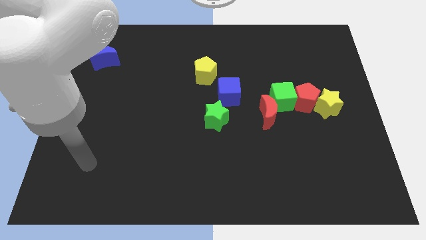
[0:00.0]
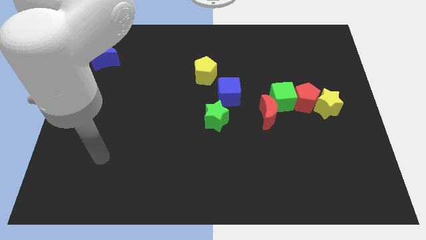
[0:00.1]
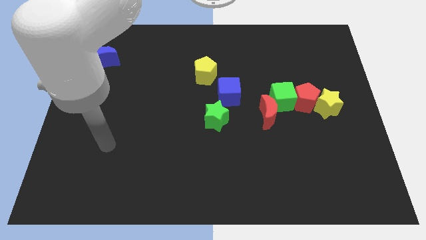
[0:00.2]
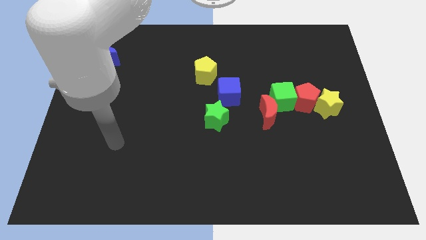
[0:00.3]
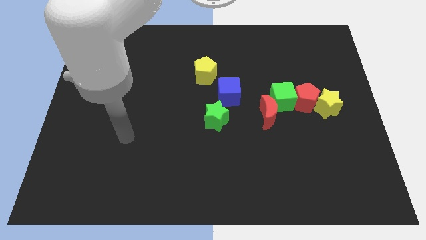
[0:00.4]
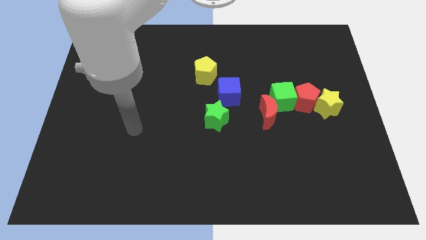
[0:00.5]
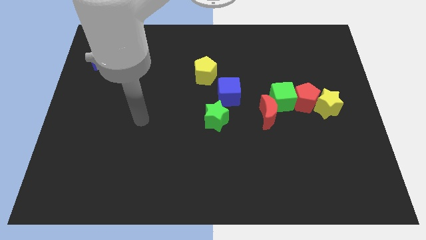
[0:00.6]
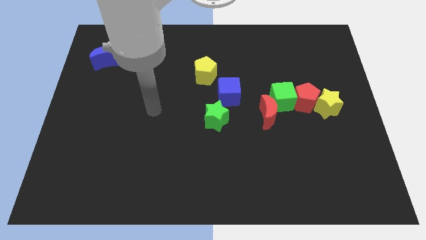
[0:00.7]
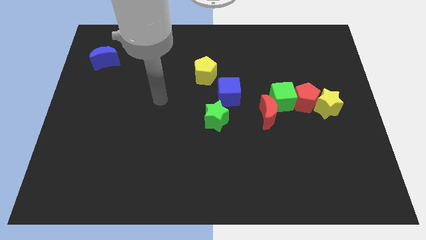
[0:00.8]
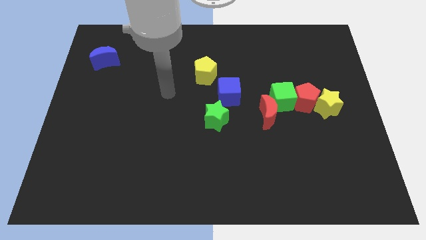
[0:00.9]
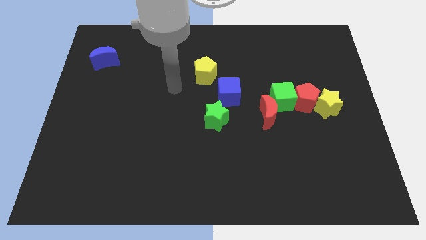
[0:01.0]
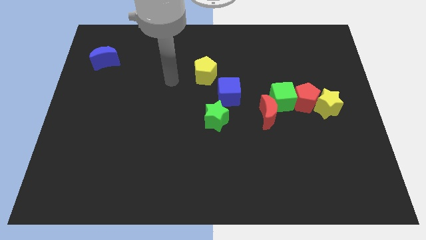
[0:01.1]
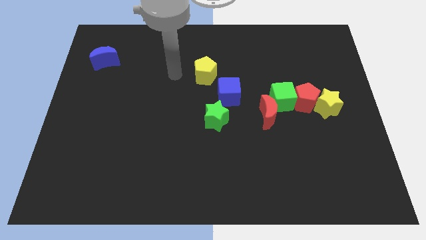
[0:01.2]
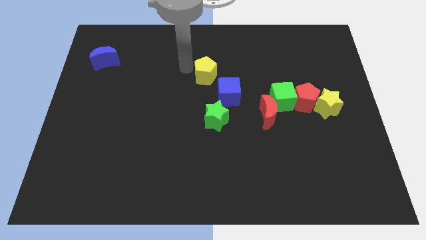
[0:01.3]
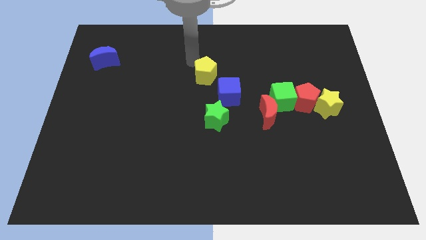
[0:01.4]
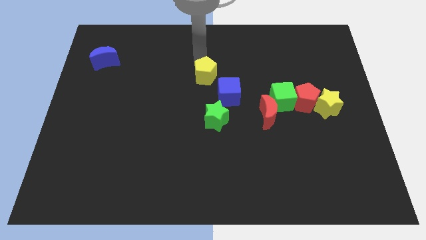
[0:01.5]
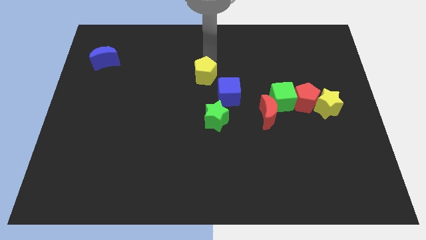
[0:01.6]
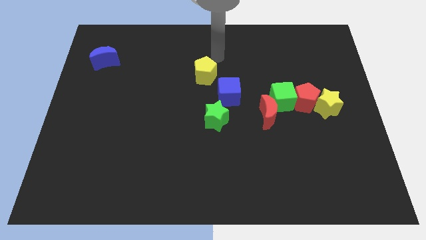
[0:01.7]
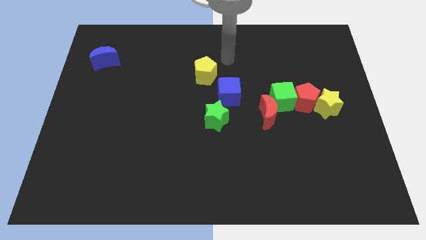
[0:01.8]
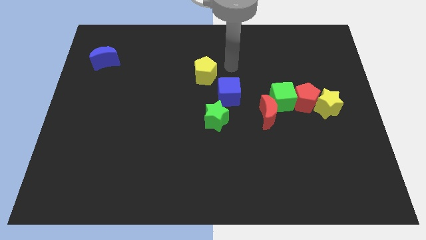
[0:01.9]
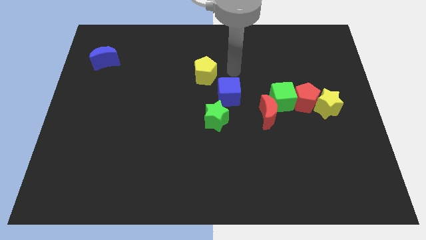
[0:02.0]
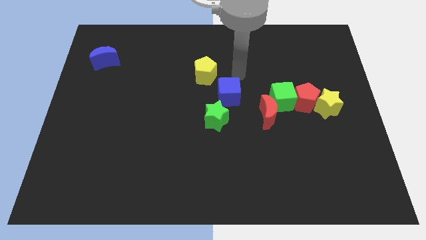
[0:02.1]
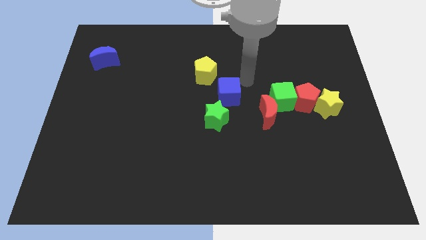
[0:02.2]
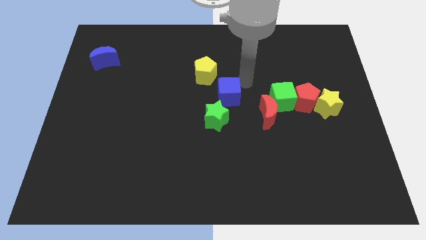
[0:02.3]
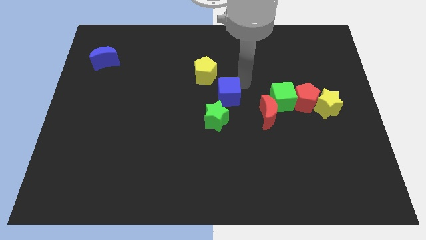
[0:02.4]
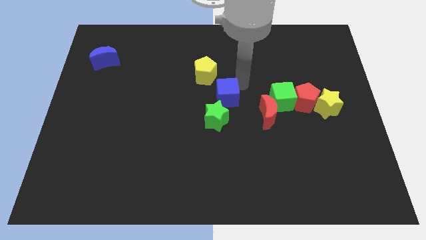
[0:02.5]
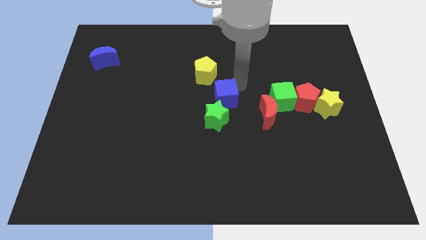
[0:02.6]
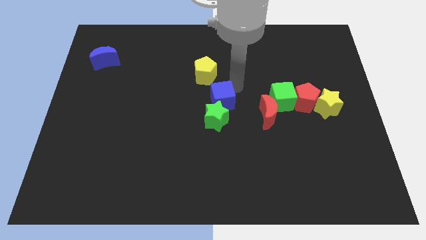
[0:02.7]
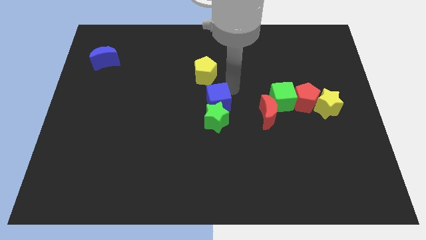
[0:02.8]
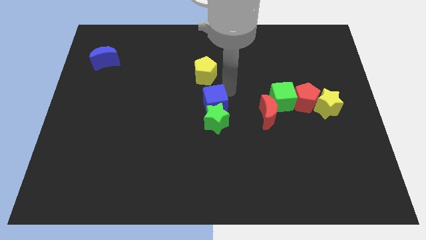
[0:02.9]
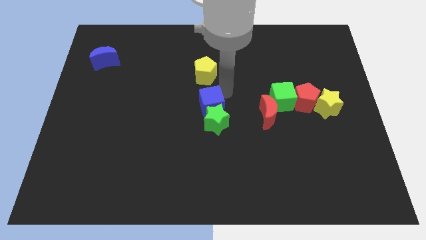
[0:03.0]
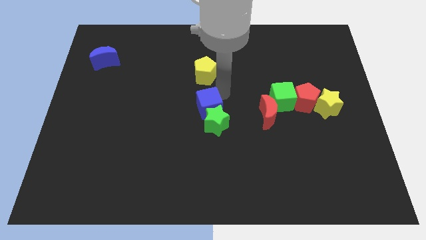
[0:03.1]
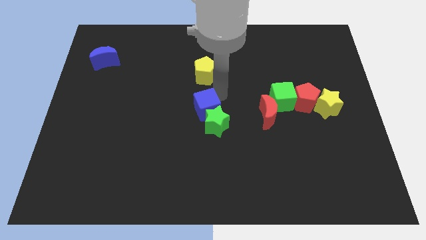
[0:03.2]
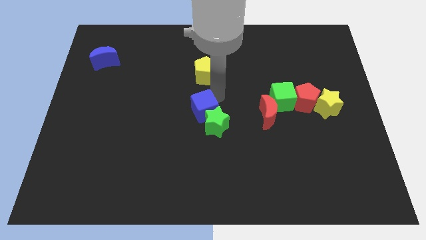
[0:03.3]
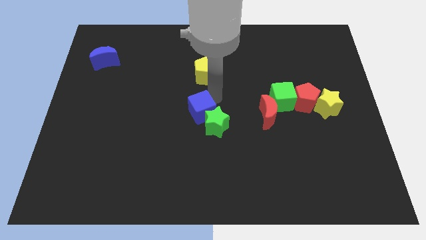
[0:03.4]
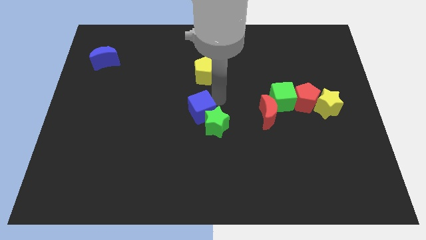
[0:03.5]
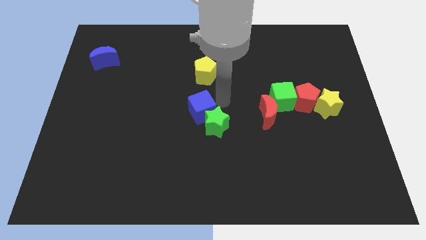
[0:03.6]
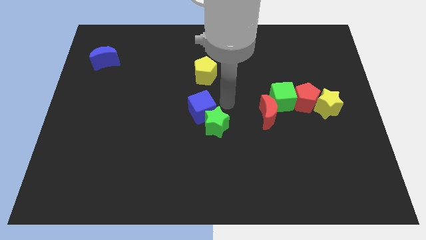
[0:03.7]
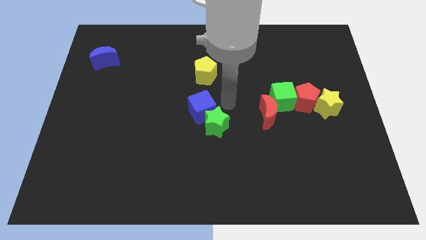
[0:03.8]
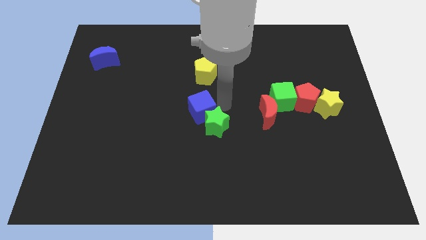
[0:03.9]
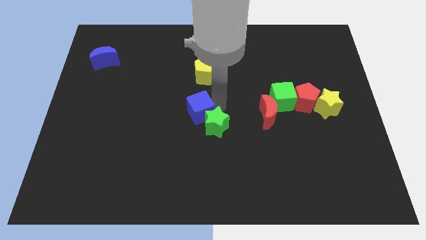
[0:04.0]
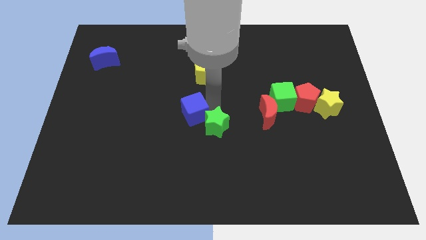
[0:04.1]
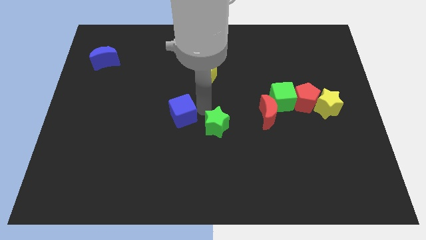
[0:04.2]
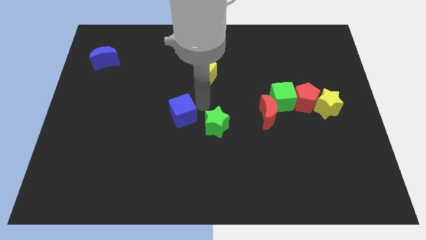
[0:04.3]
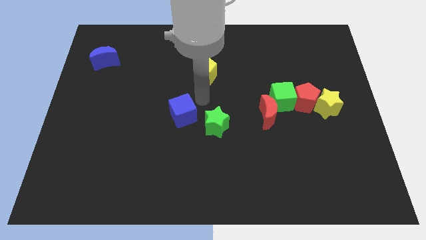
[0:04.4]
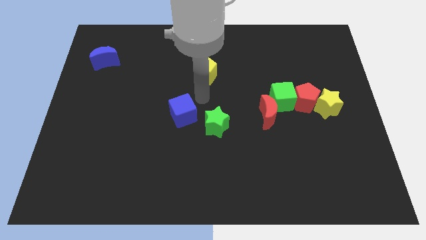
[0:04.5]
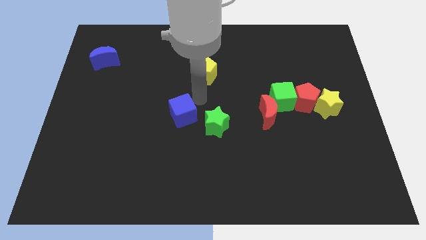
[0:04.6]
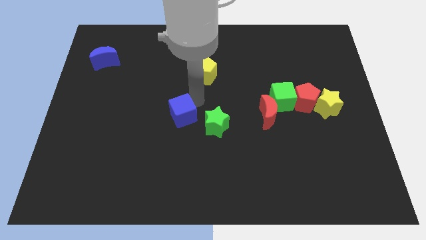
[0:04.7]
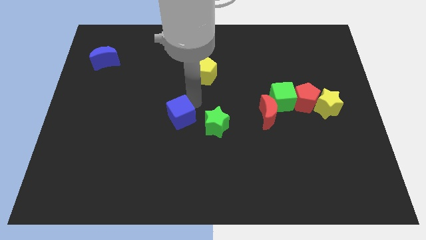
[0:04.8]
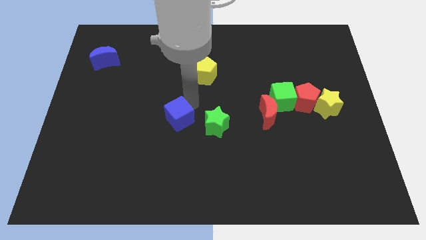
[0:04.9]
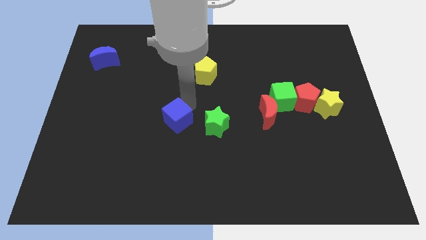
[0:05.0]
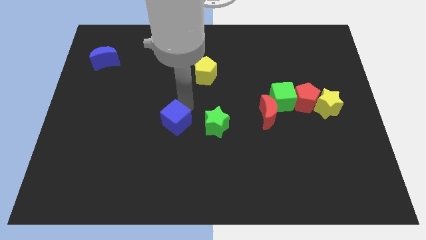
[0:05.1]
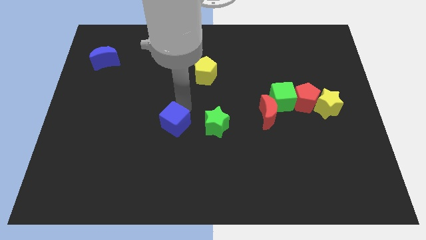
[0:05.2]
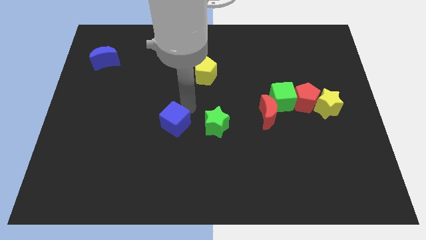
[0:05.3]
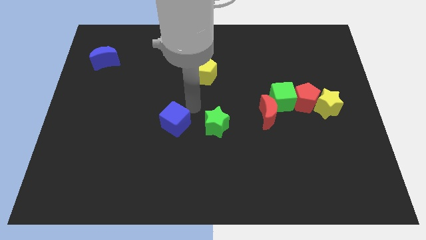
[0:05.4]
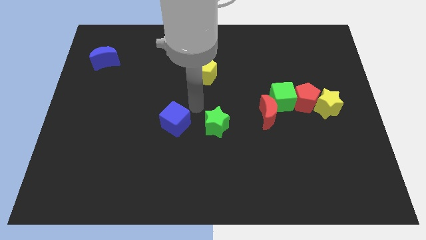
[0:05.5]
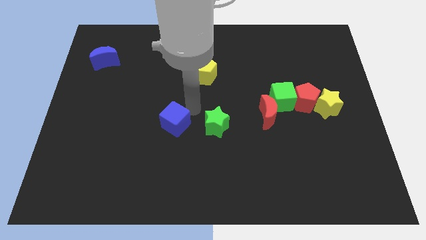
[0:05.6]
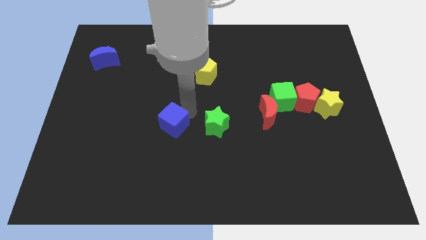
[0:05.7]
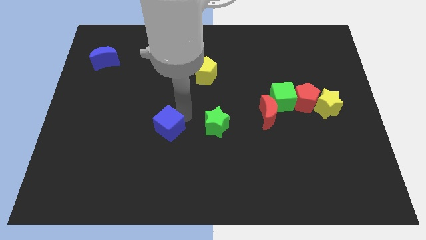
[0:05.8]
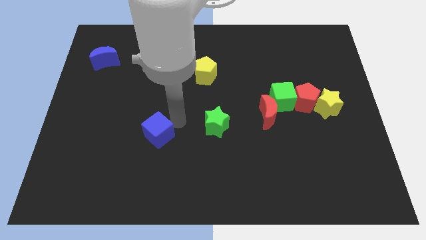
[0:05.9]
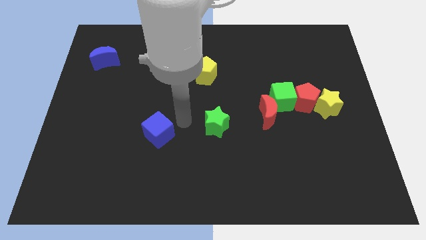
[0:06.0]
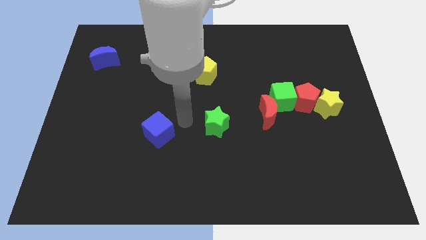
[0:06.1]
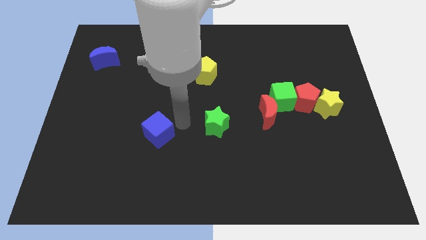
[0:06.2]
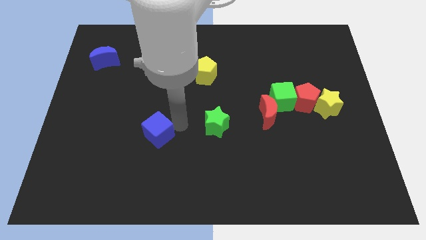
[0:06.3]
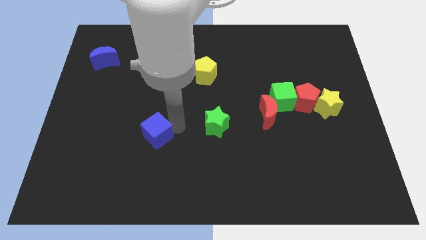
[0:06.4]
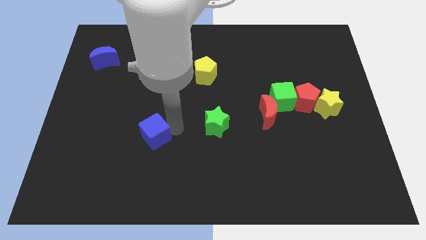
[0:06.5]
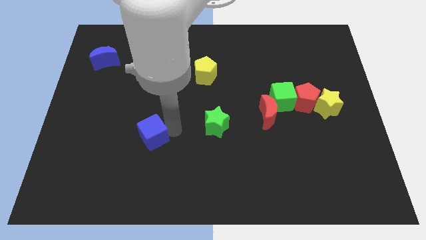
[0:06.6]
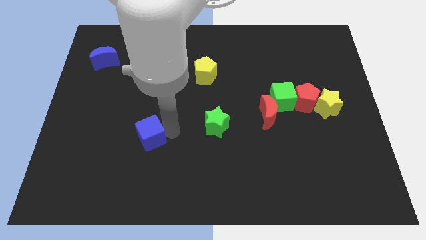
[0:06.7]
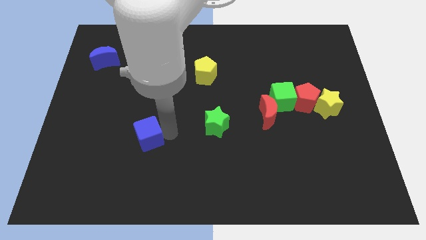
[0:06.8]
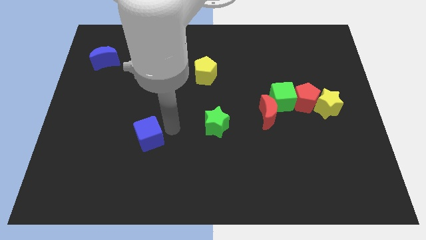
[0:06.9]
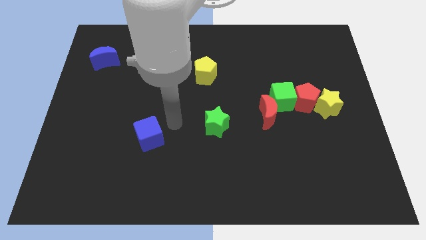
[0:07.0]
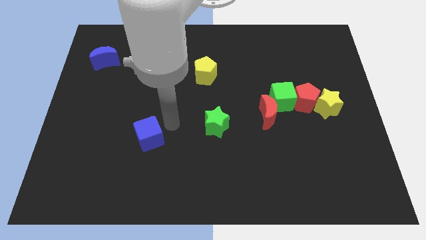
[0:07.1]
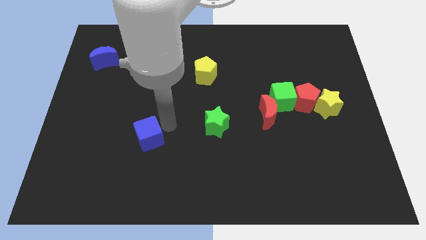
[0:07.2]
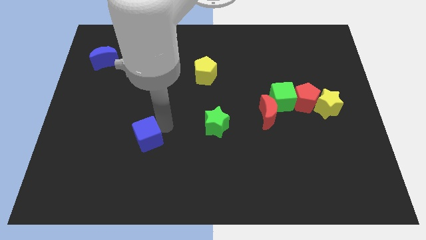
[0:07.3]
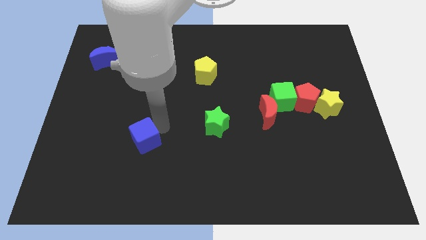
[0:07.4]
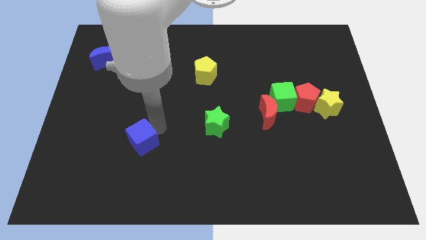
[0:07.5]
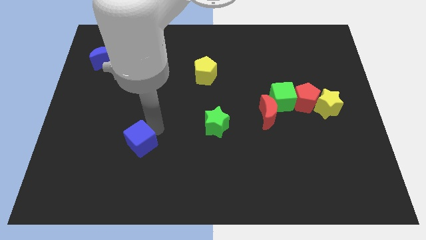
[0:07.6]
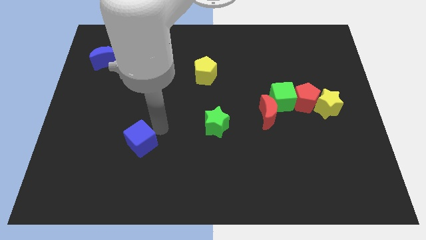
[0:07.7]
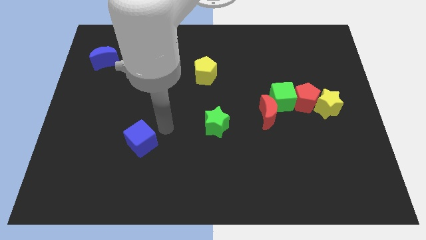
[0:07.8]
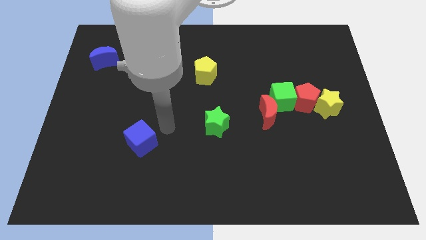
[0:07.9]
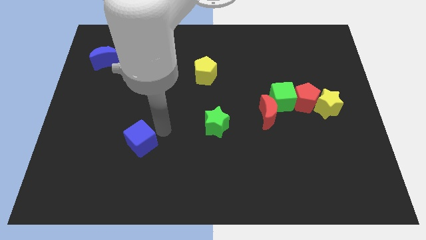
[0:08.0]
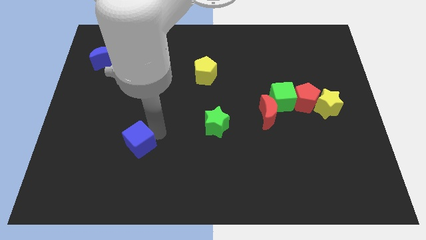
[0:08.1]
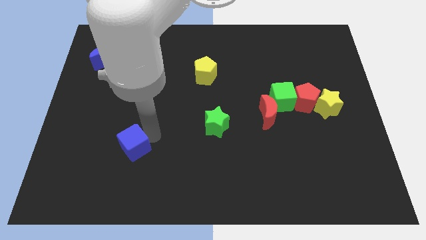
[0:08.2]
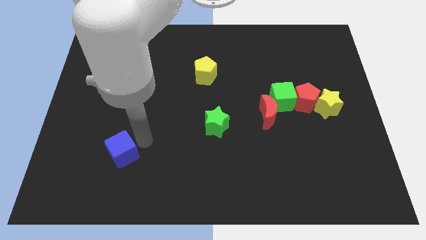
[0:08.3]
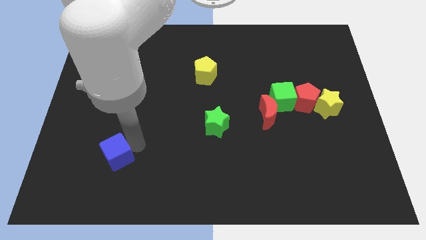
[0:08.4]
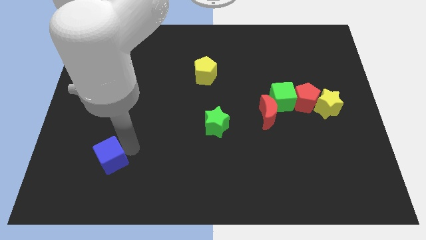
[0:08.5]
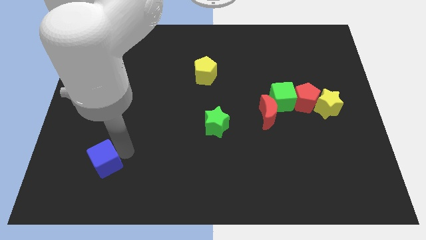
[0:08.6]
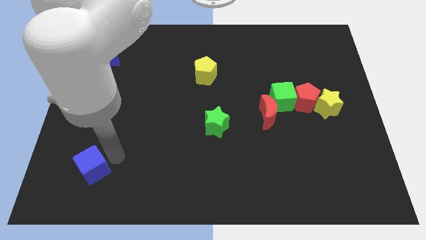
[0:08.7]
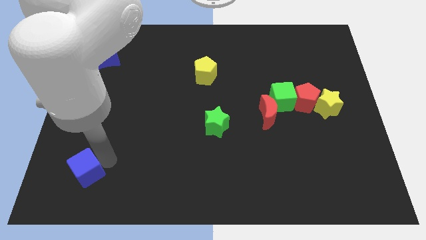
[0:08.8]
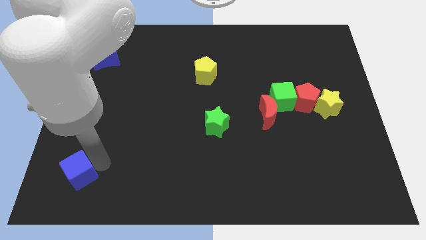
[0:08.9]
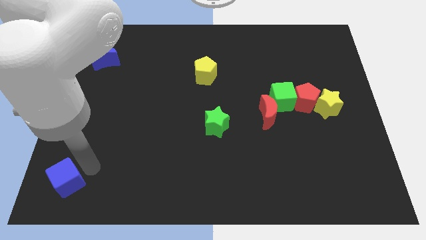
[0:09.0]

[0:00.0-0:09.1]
push the blue cube to the lower left corner
